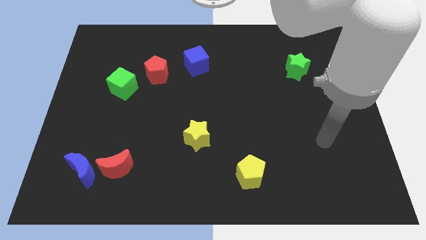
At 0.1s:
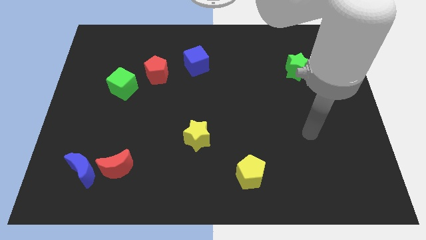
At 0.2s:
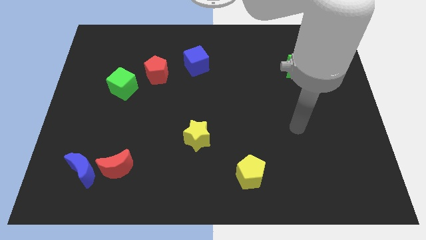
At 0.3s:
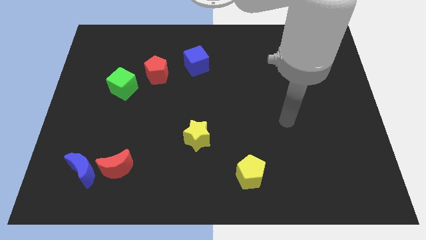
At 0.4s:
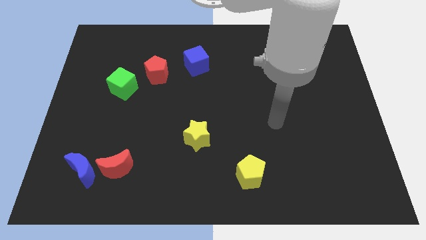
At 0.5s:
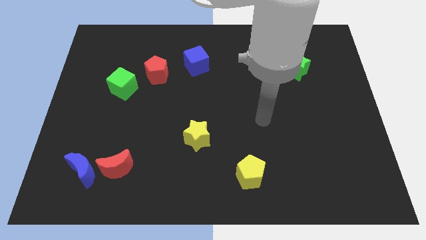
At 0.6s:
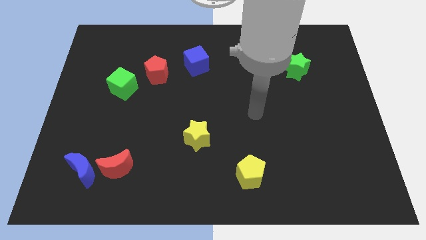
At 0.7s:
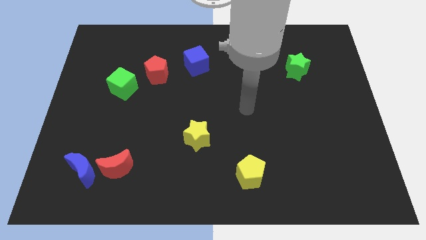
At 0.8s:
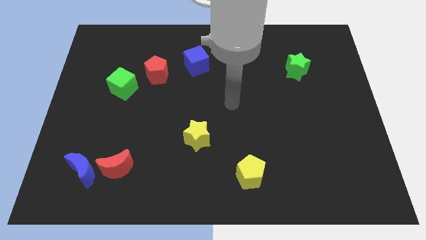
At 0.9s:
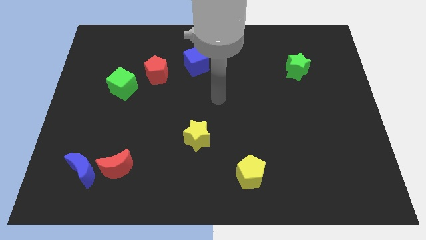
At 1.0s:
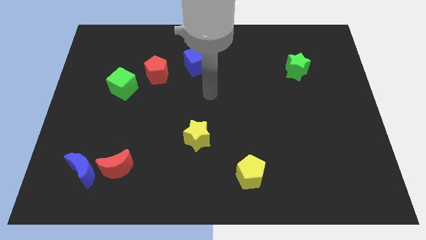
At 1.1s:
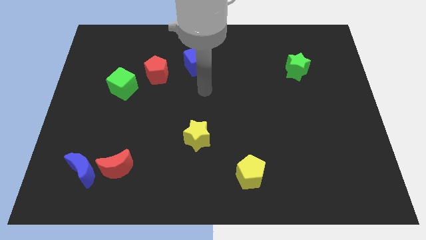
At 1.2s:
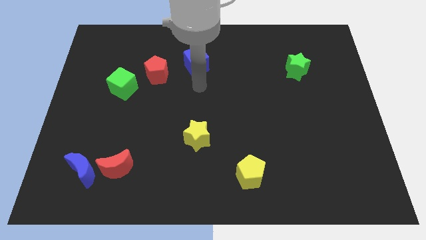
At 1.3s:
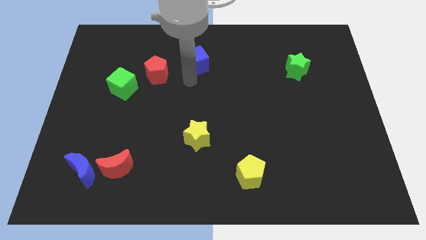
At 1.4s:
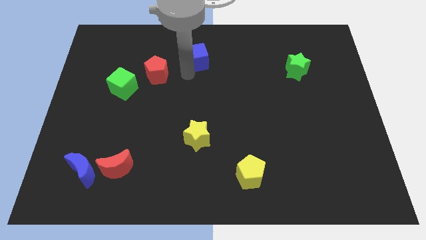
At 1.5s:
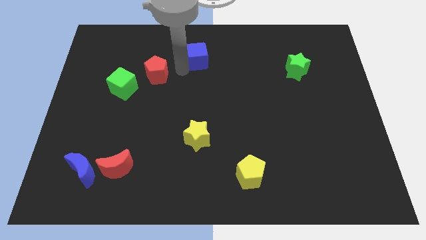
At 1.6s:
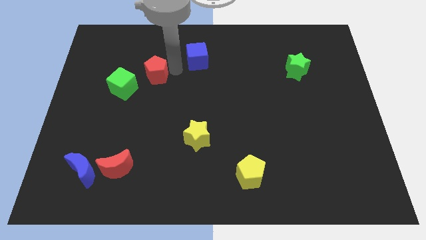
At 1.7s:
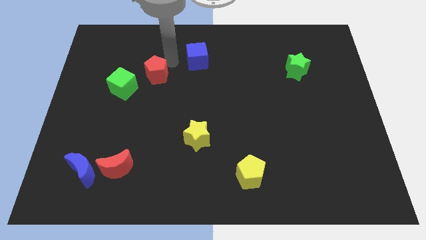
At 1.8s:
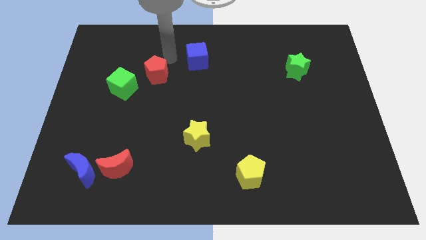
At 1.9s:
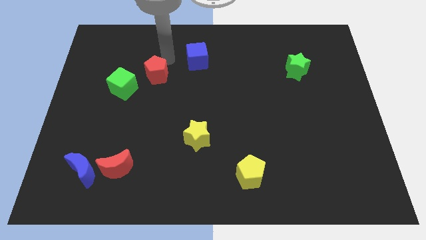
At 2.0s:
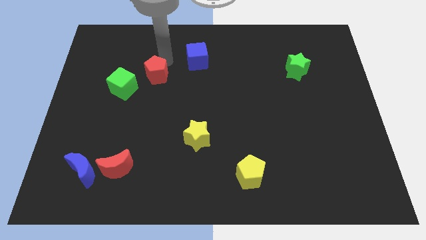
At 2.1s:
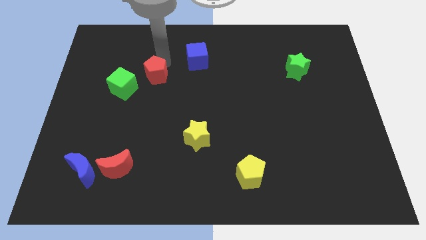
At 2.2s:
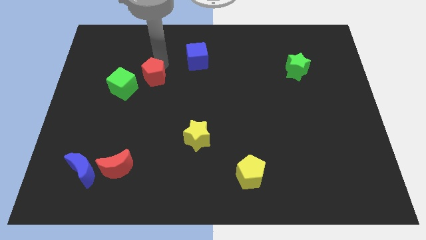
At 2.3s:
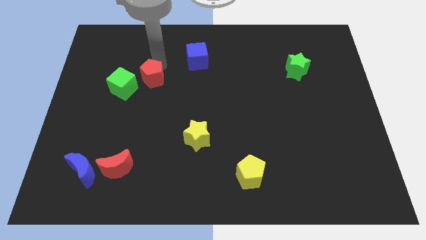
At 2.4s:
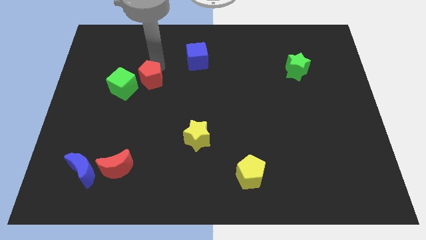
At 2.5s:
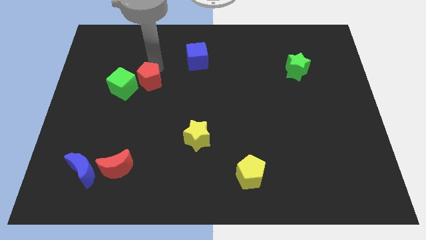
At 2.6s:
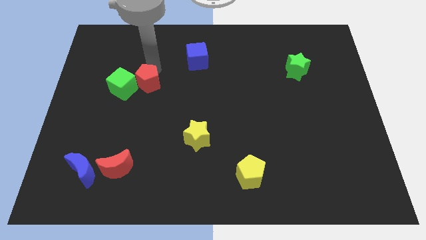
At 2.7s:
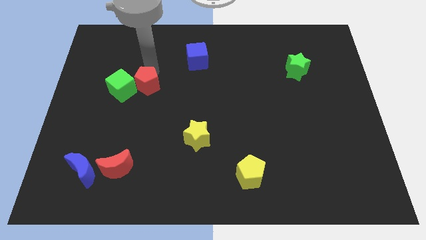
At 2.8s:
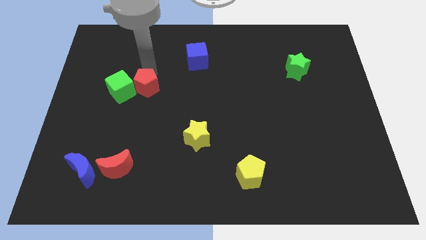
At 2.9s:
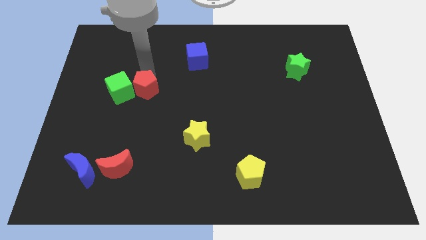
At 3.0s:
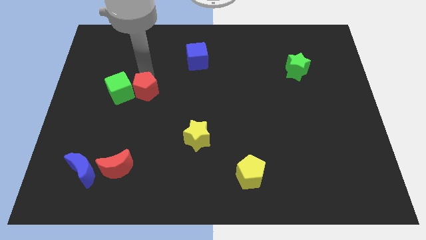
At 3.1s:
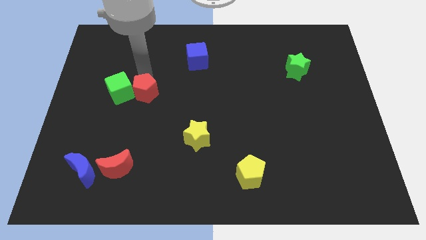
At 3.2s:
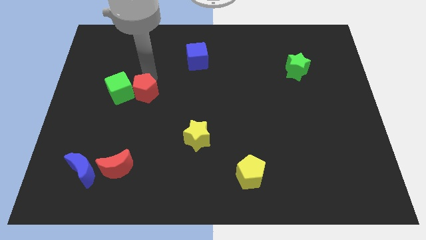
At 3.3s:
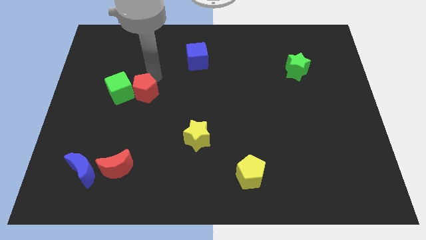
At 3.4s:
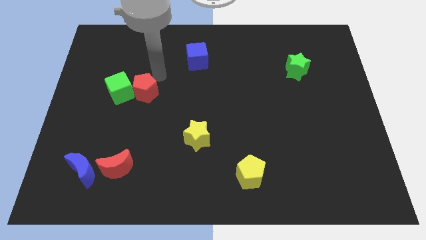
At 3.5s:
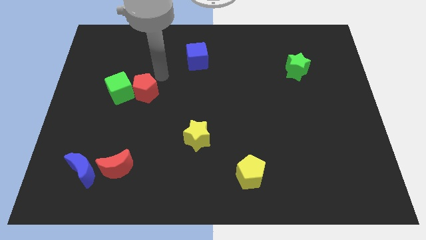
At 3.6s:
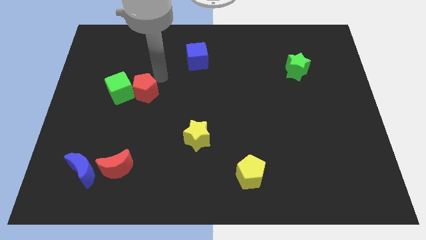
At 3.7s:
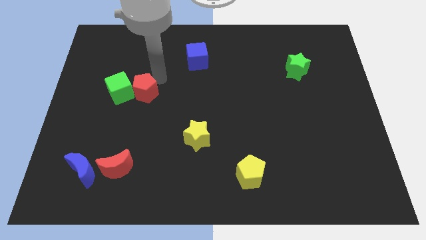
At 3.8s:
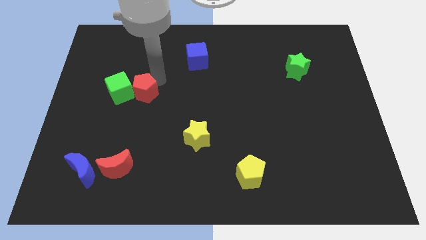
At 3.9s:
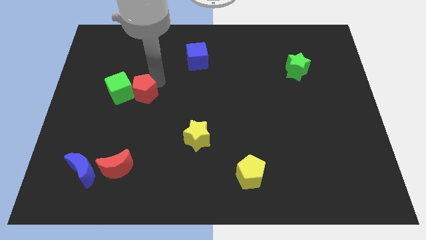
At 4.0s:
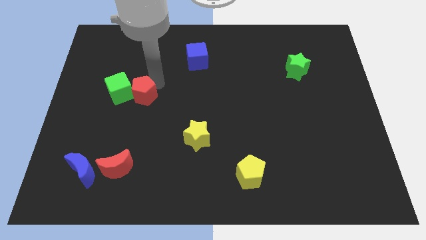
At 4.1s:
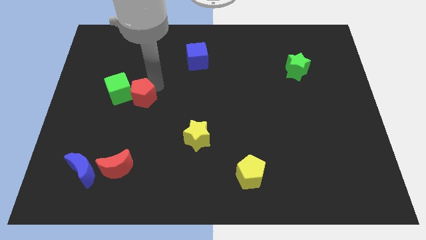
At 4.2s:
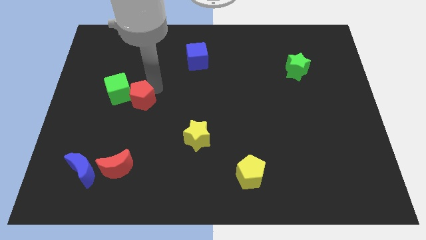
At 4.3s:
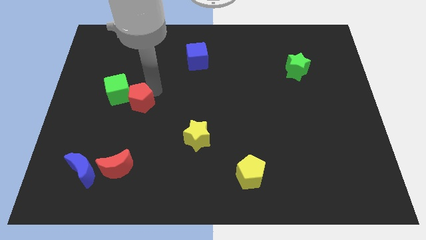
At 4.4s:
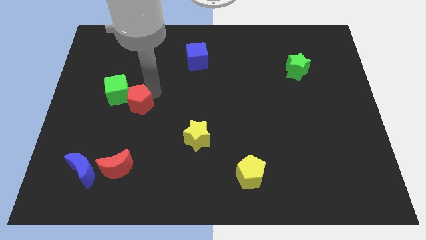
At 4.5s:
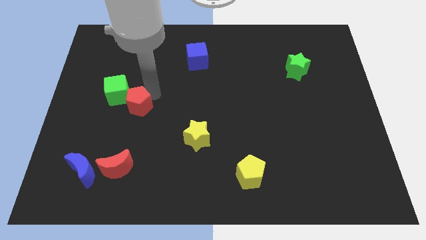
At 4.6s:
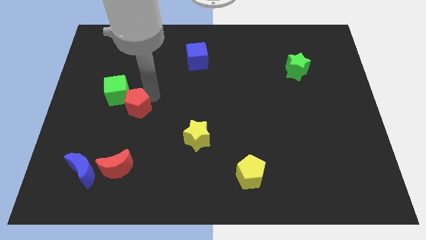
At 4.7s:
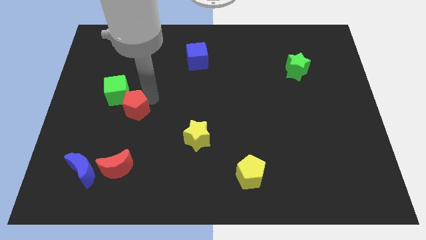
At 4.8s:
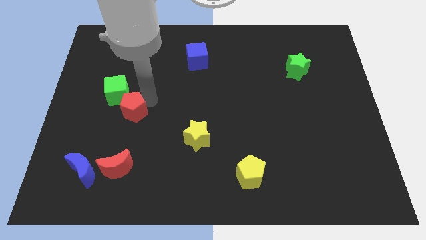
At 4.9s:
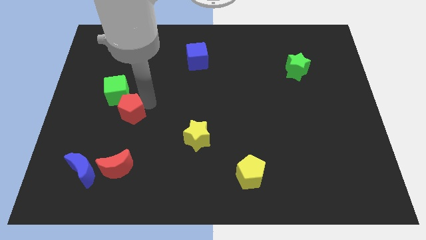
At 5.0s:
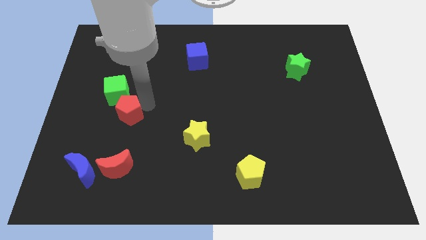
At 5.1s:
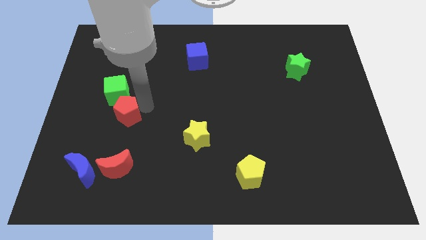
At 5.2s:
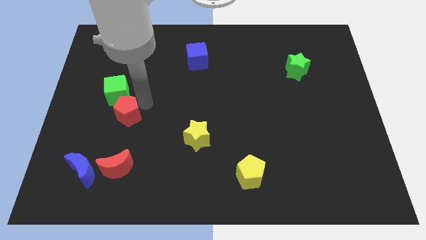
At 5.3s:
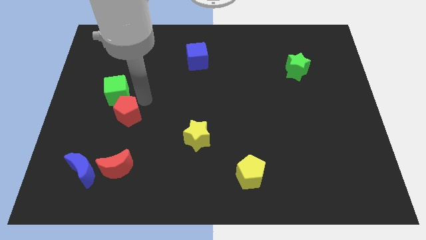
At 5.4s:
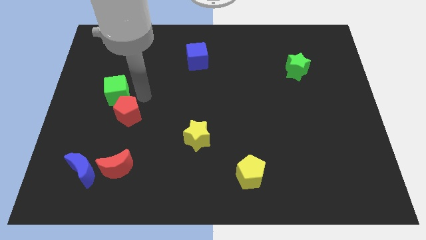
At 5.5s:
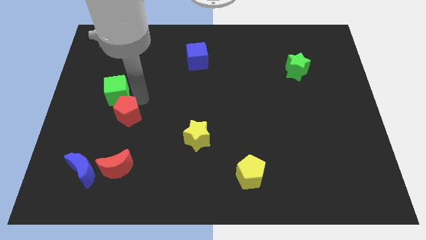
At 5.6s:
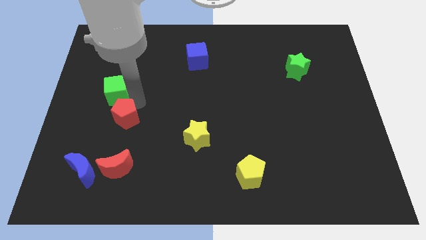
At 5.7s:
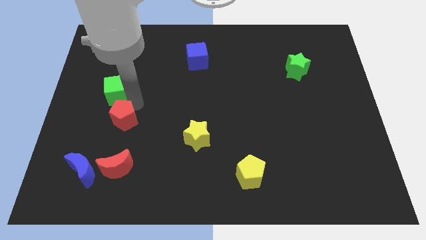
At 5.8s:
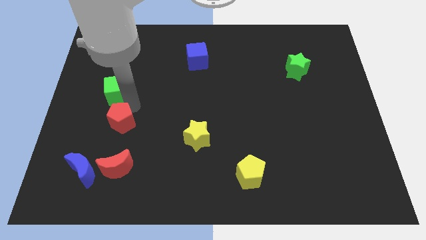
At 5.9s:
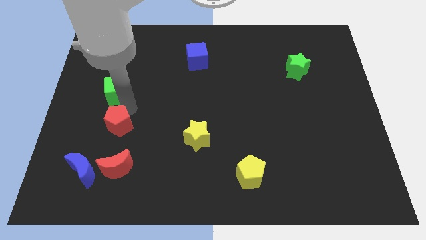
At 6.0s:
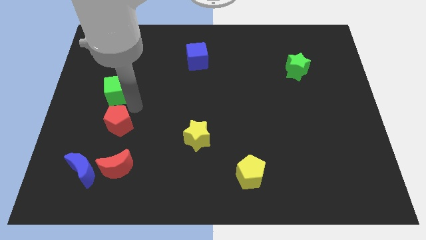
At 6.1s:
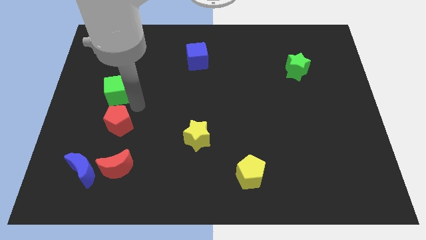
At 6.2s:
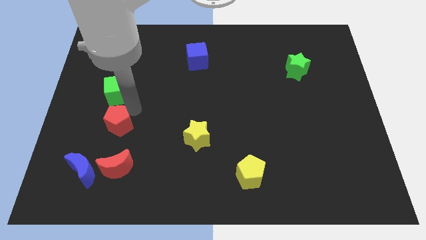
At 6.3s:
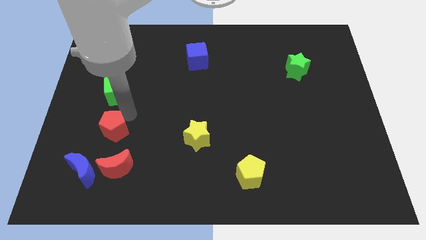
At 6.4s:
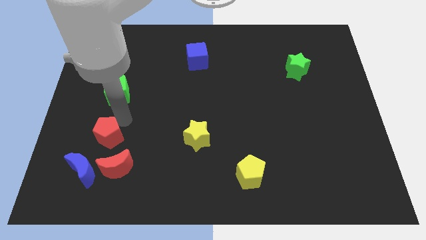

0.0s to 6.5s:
push the red pentagon diagonally up and to the left of the red moon

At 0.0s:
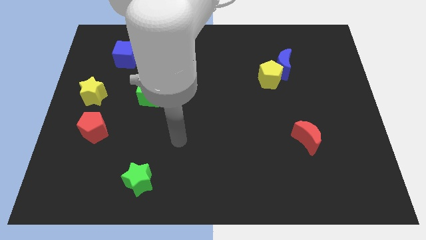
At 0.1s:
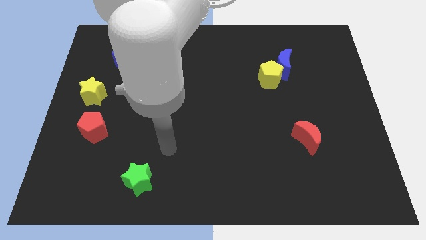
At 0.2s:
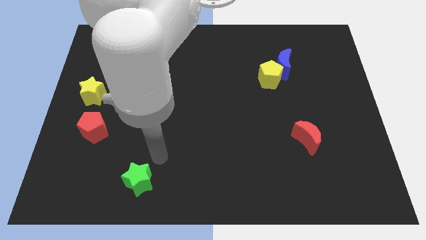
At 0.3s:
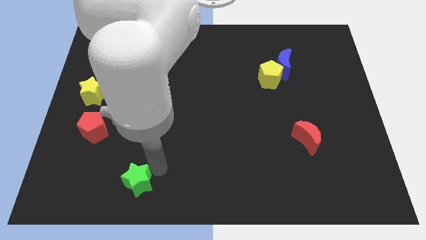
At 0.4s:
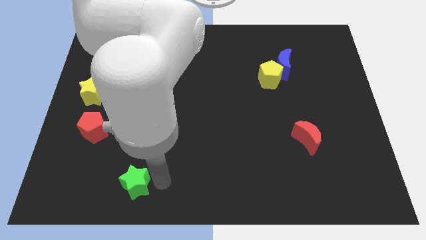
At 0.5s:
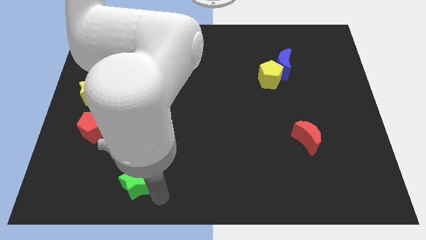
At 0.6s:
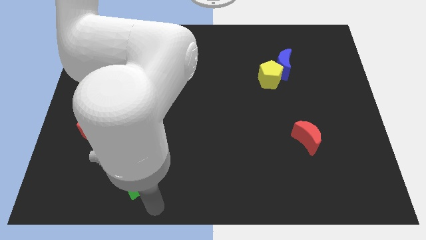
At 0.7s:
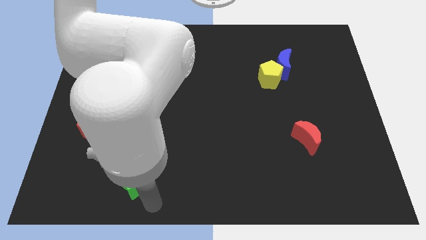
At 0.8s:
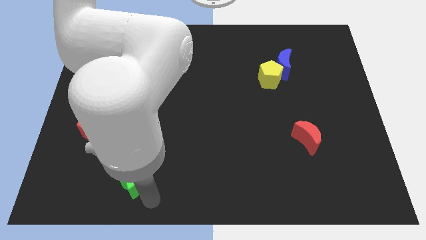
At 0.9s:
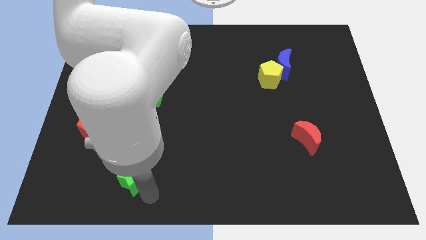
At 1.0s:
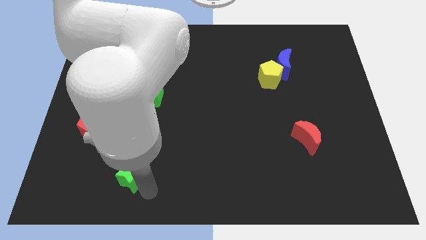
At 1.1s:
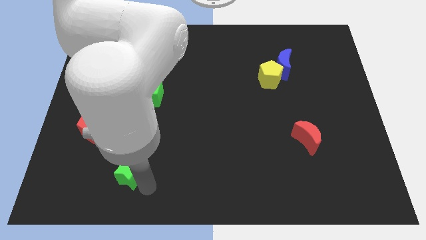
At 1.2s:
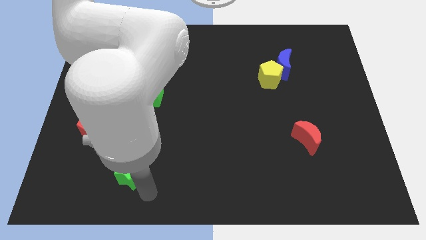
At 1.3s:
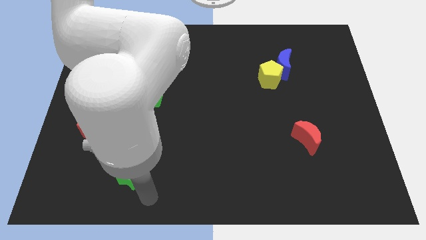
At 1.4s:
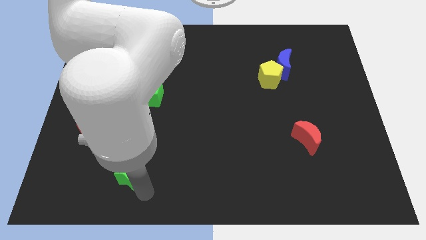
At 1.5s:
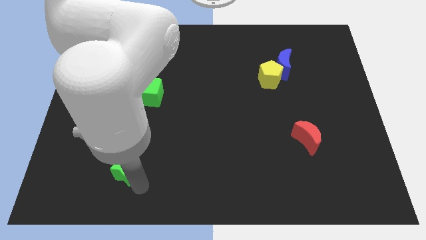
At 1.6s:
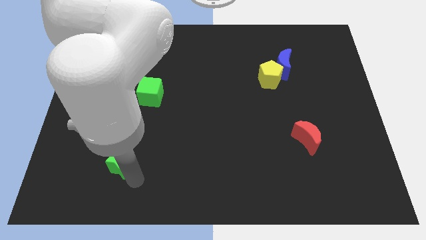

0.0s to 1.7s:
move the green star diagonally down and to the right of the red pentagon
